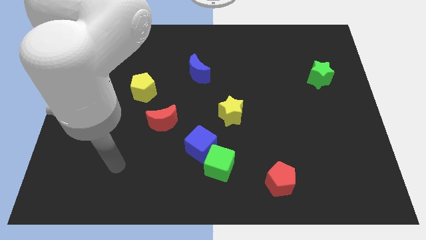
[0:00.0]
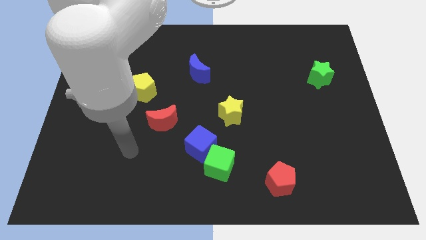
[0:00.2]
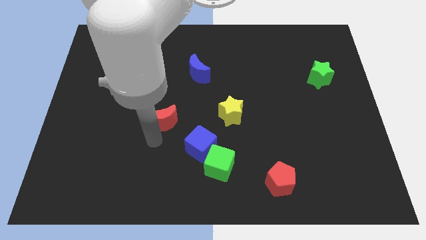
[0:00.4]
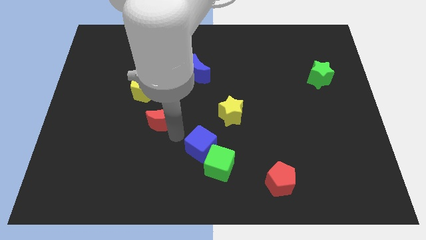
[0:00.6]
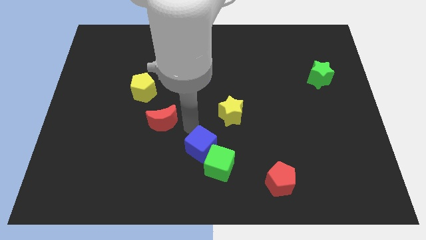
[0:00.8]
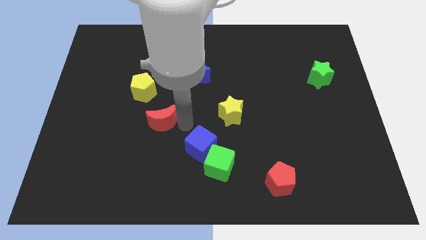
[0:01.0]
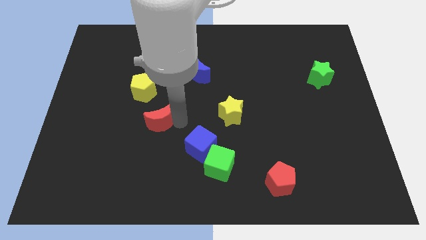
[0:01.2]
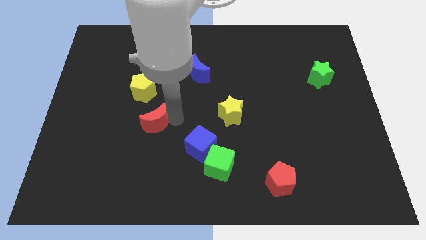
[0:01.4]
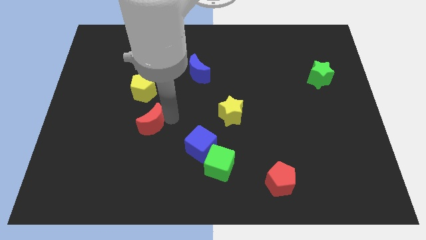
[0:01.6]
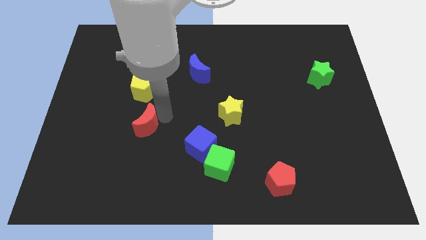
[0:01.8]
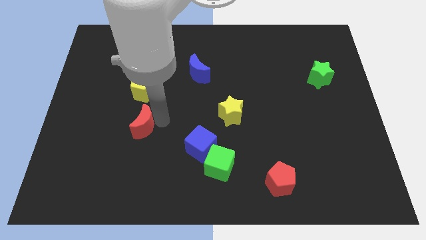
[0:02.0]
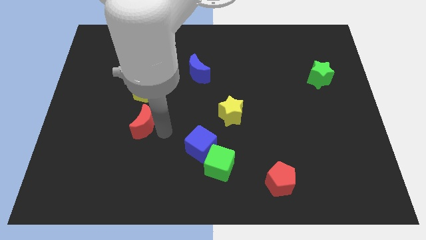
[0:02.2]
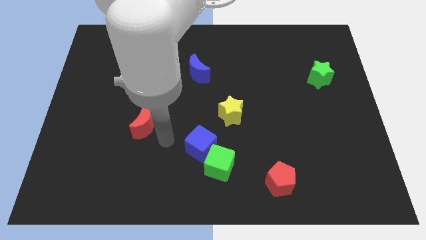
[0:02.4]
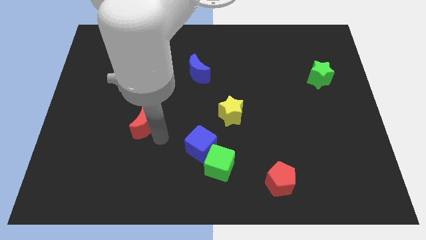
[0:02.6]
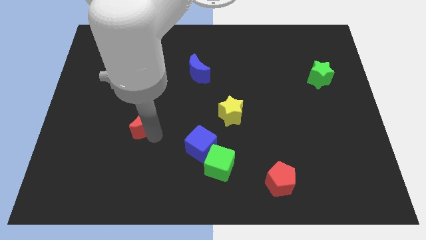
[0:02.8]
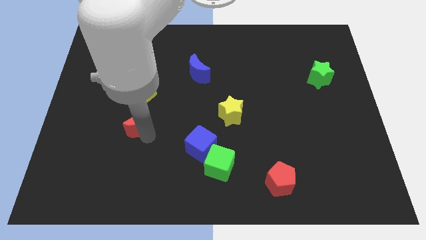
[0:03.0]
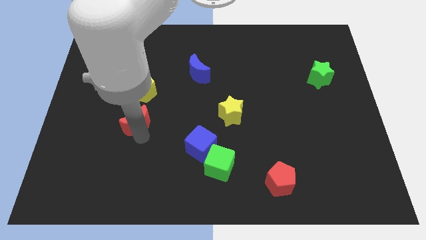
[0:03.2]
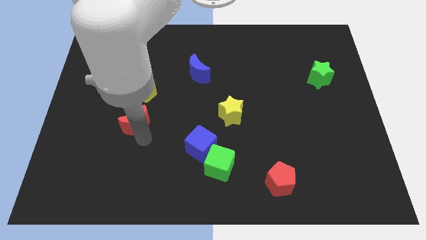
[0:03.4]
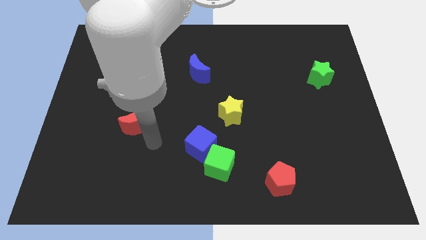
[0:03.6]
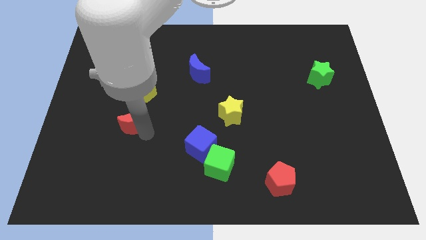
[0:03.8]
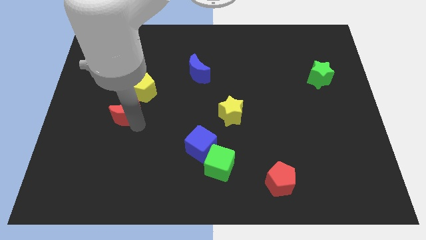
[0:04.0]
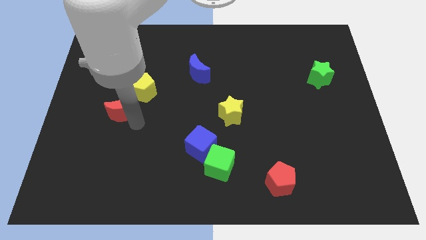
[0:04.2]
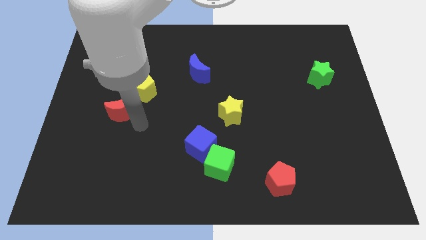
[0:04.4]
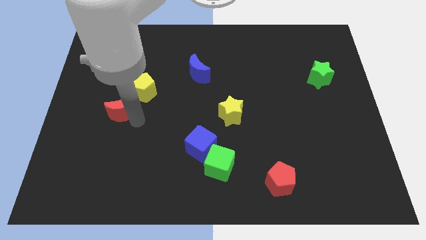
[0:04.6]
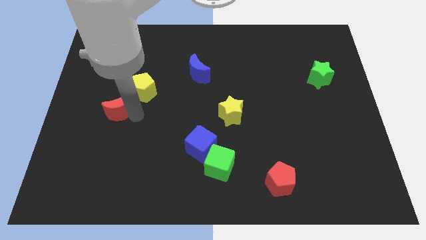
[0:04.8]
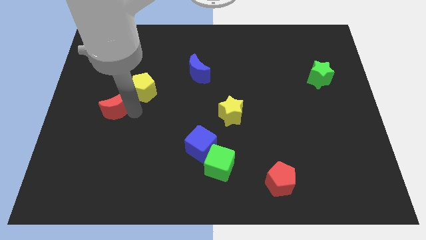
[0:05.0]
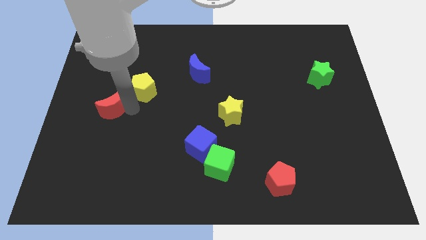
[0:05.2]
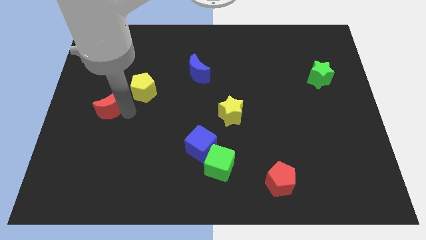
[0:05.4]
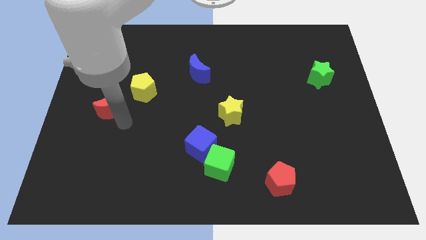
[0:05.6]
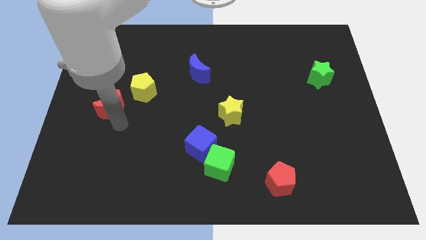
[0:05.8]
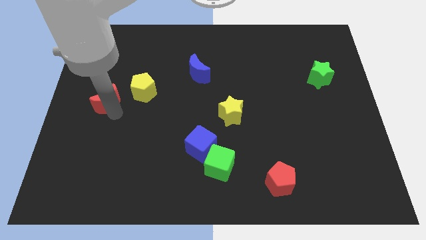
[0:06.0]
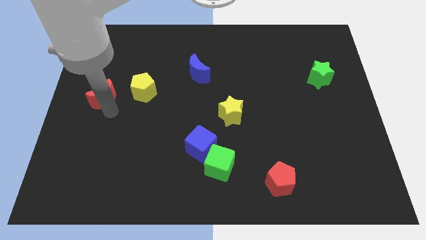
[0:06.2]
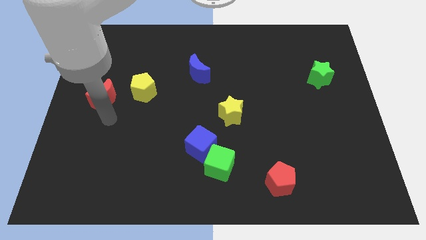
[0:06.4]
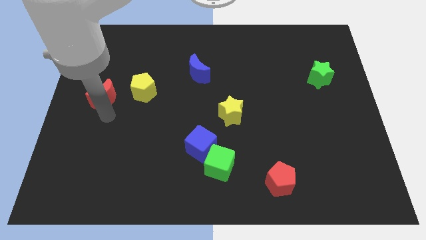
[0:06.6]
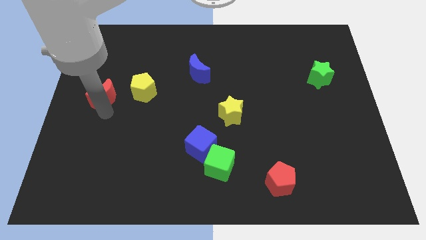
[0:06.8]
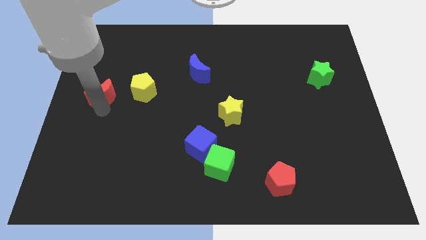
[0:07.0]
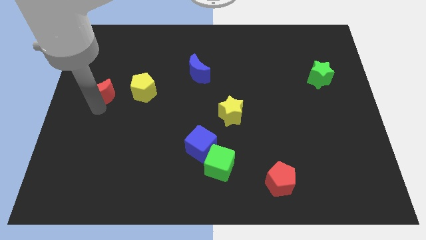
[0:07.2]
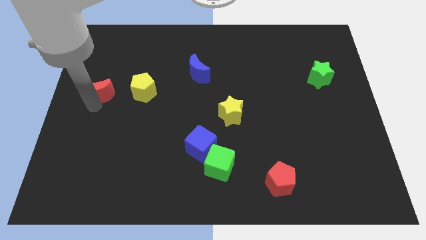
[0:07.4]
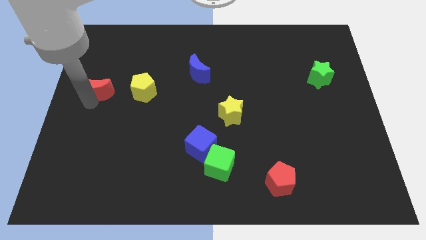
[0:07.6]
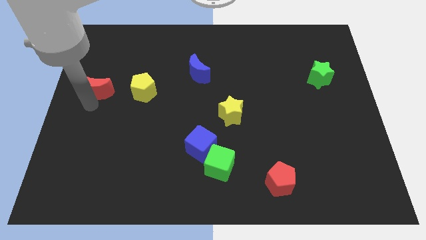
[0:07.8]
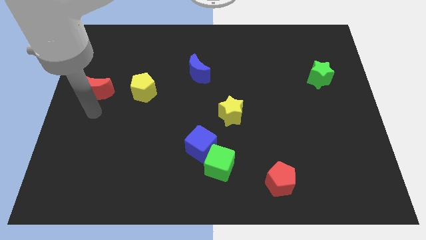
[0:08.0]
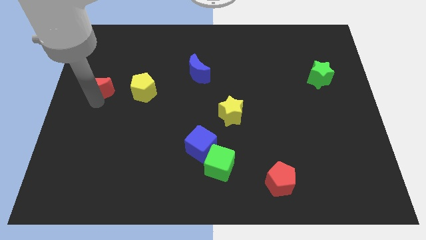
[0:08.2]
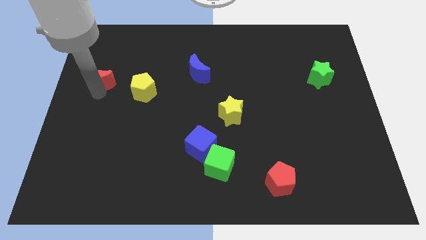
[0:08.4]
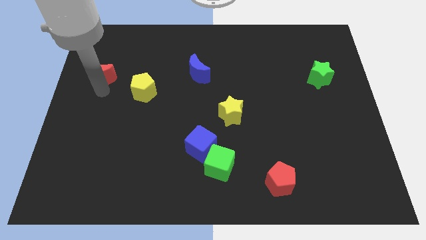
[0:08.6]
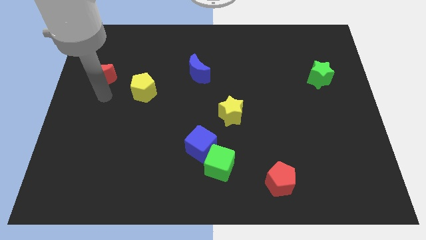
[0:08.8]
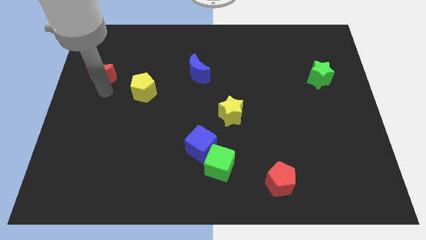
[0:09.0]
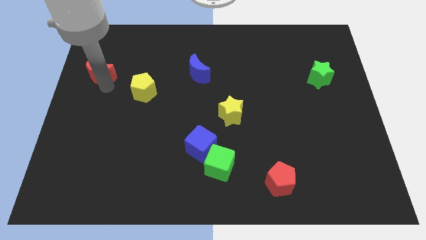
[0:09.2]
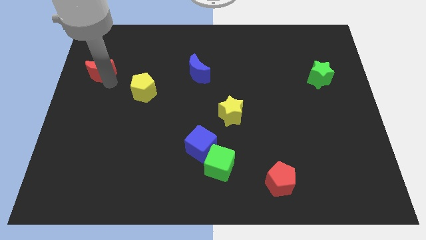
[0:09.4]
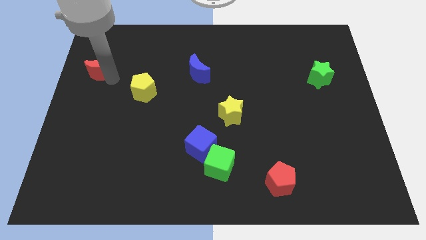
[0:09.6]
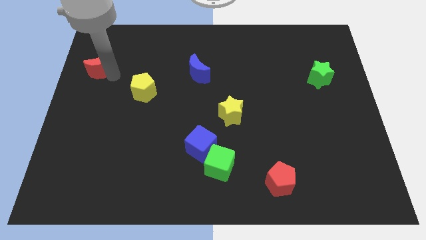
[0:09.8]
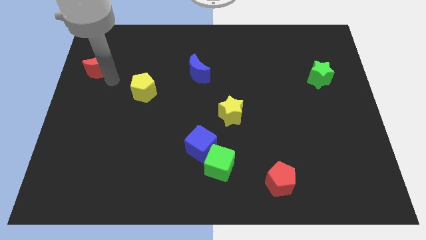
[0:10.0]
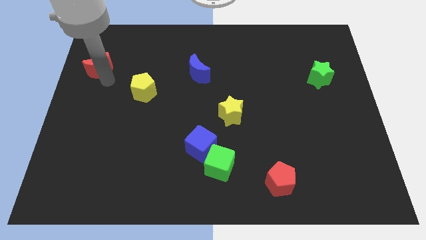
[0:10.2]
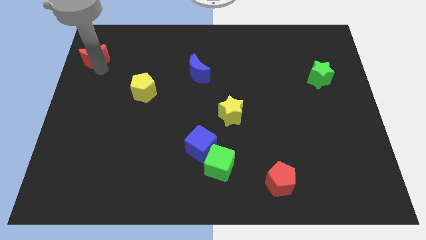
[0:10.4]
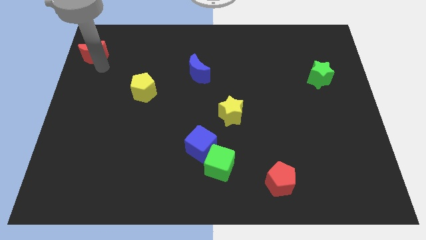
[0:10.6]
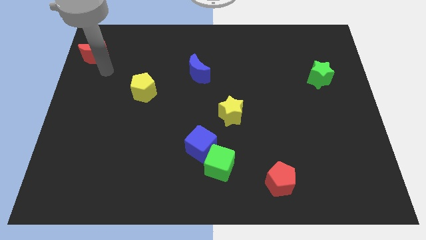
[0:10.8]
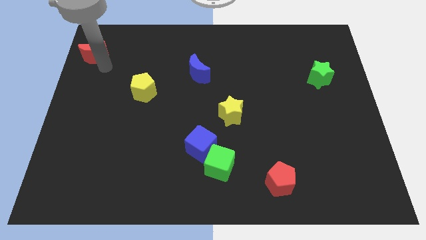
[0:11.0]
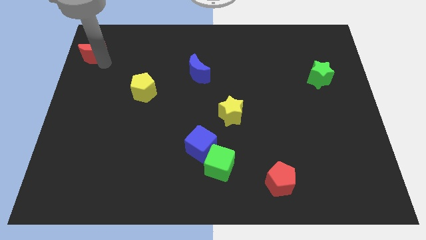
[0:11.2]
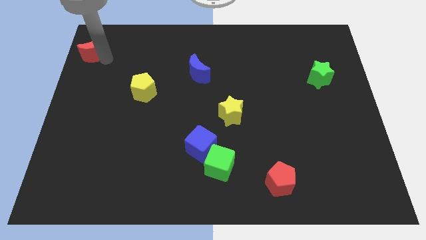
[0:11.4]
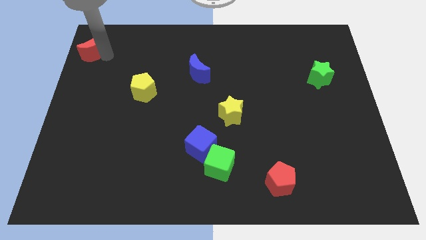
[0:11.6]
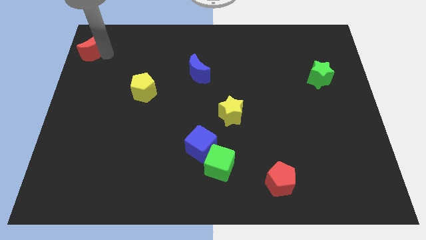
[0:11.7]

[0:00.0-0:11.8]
move the red moon to the top left
